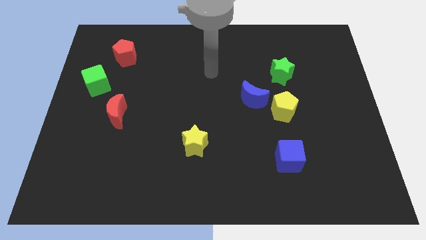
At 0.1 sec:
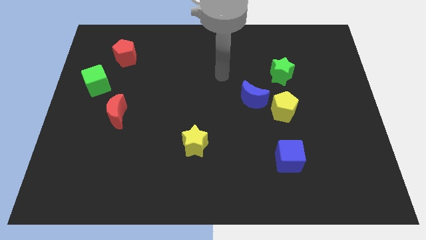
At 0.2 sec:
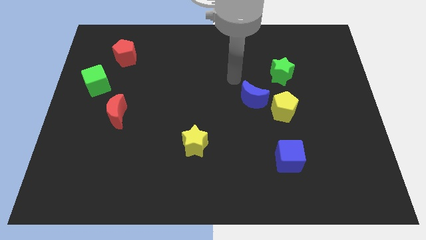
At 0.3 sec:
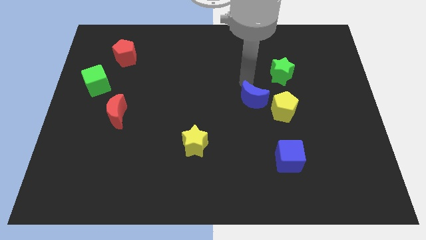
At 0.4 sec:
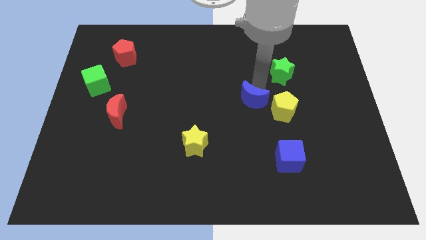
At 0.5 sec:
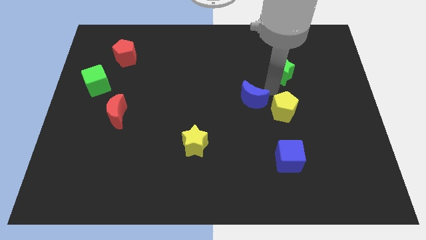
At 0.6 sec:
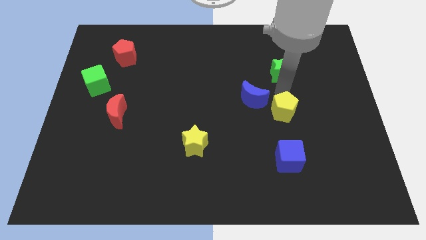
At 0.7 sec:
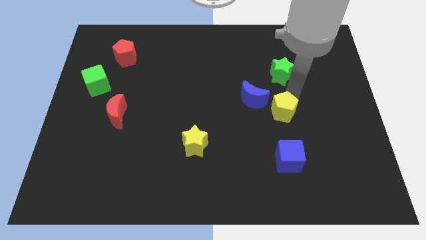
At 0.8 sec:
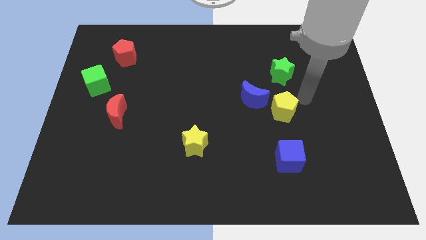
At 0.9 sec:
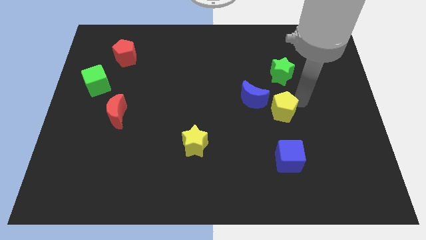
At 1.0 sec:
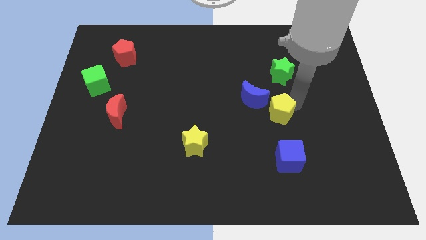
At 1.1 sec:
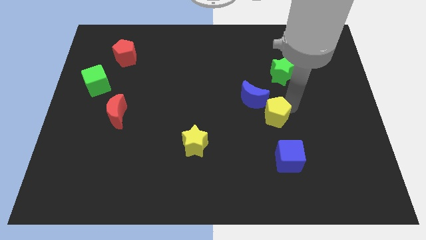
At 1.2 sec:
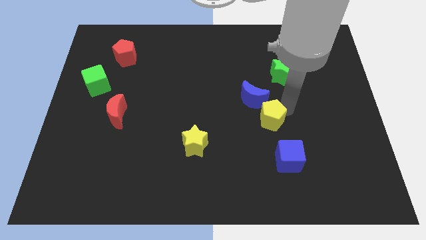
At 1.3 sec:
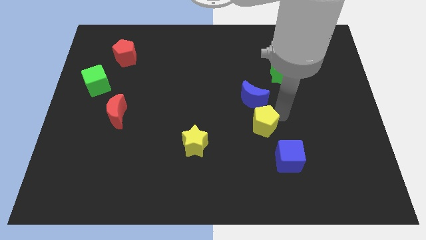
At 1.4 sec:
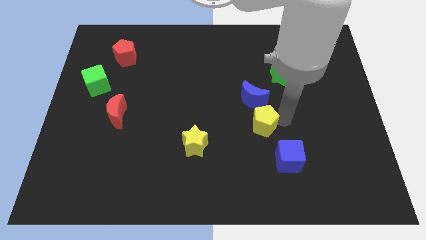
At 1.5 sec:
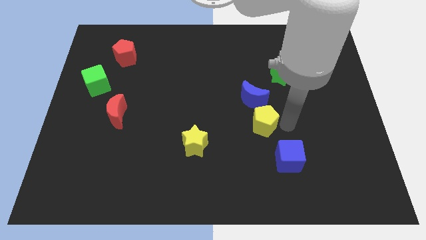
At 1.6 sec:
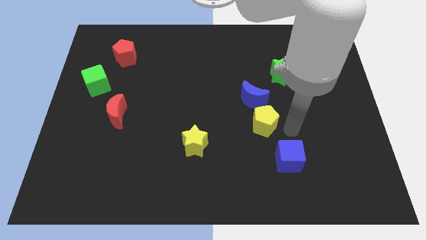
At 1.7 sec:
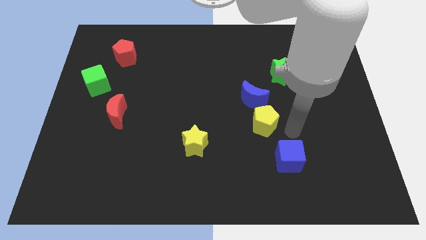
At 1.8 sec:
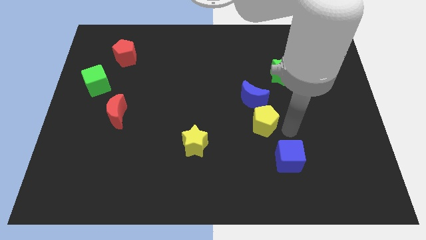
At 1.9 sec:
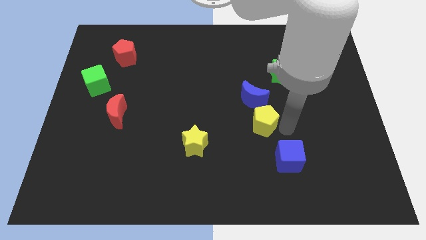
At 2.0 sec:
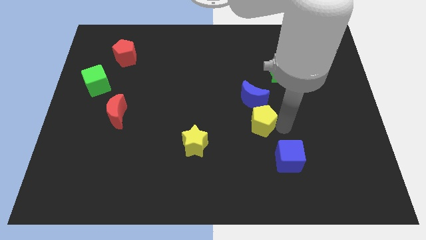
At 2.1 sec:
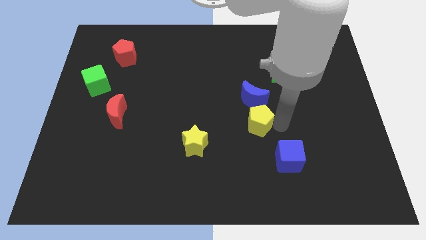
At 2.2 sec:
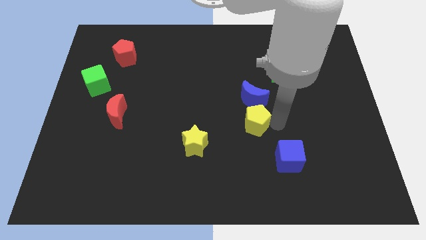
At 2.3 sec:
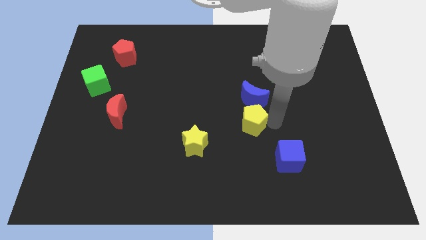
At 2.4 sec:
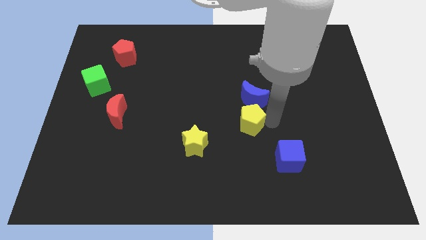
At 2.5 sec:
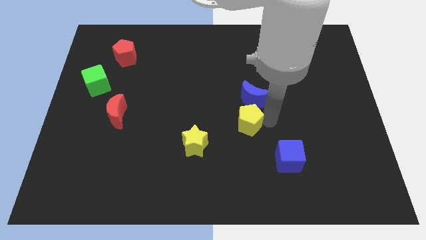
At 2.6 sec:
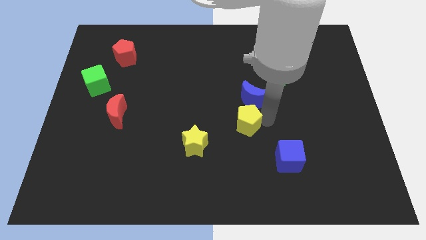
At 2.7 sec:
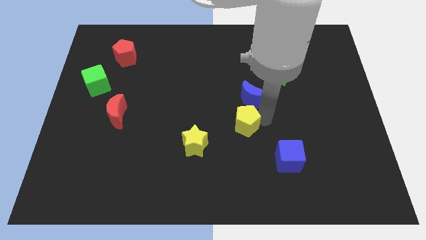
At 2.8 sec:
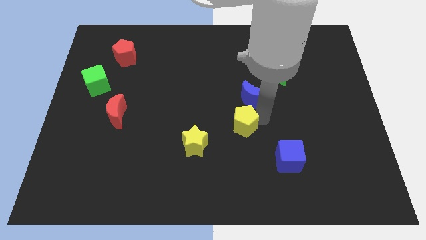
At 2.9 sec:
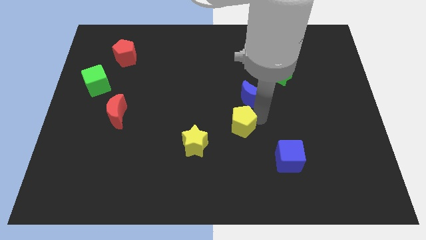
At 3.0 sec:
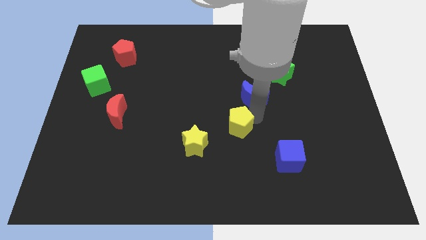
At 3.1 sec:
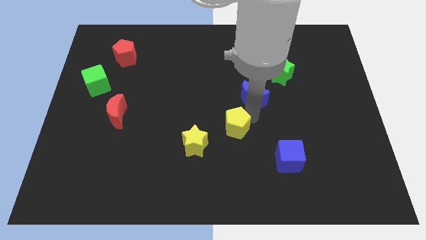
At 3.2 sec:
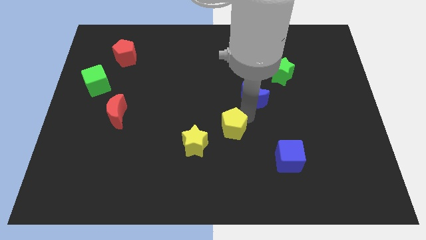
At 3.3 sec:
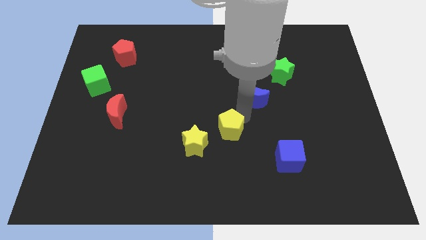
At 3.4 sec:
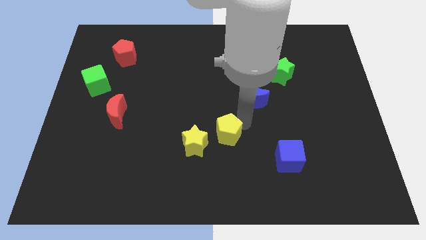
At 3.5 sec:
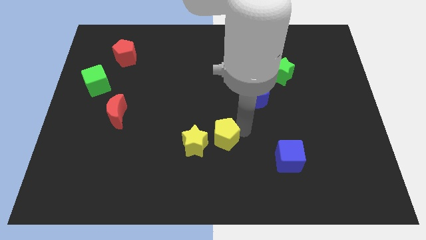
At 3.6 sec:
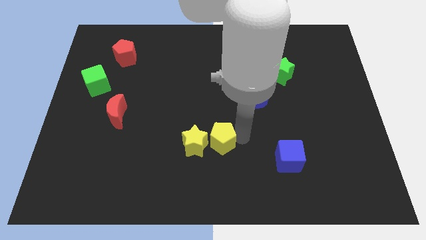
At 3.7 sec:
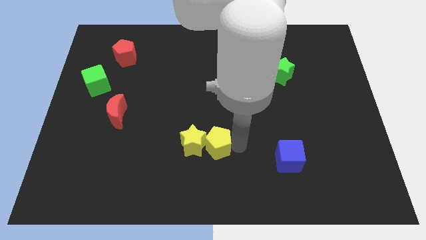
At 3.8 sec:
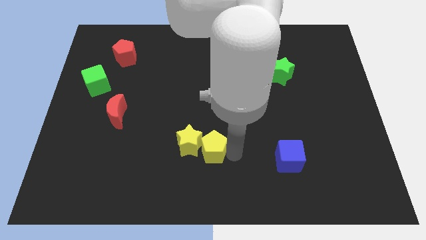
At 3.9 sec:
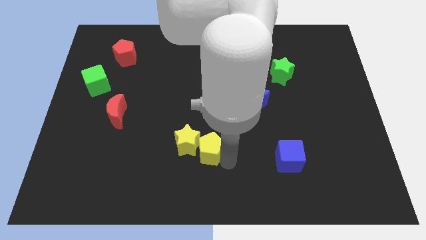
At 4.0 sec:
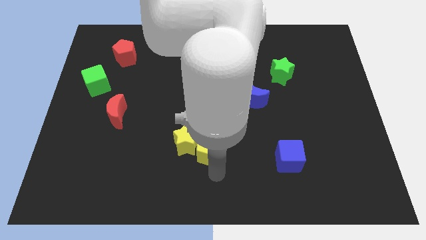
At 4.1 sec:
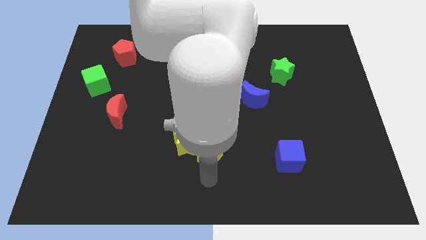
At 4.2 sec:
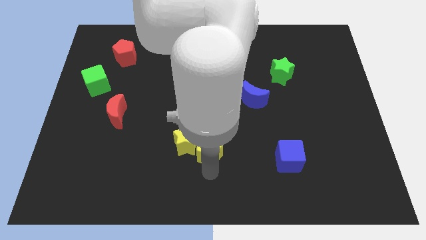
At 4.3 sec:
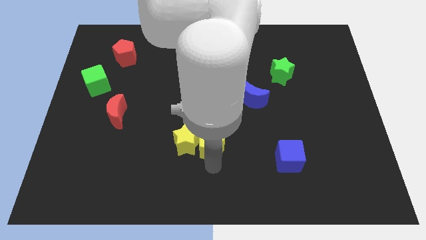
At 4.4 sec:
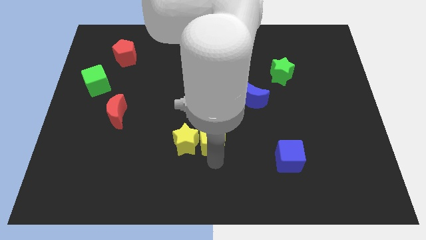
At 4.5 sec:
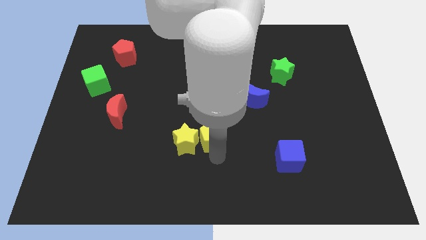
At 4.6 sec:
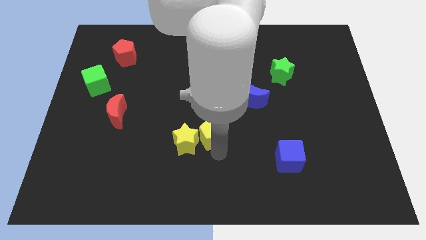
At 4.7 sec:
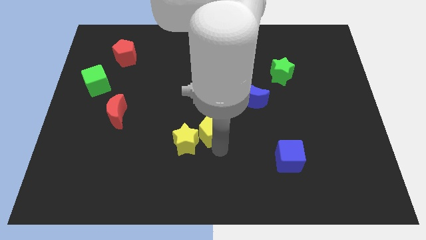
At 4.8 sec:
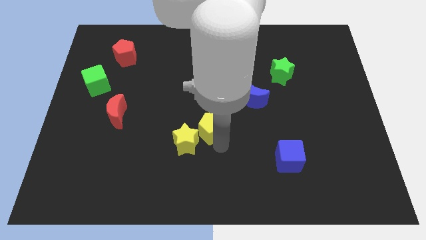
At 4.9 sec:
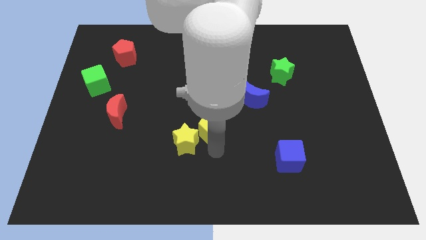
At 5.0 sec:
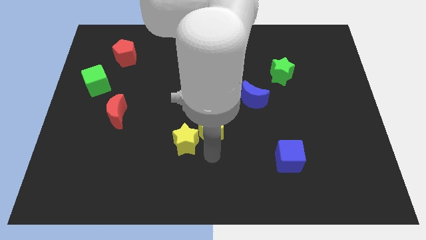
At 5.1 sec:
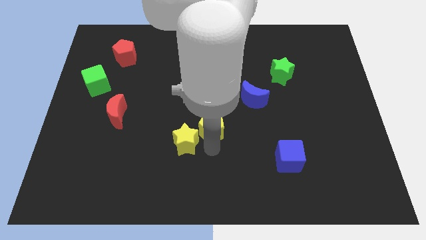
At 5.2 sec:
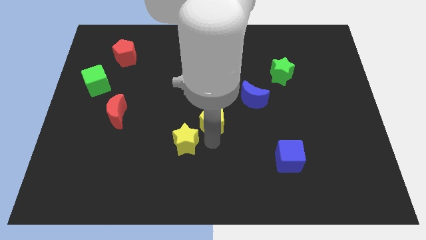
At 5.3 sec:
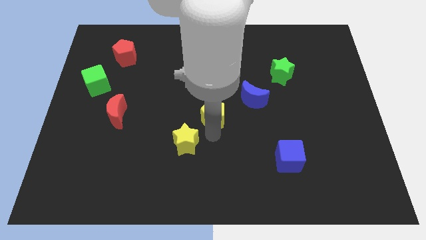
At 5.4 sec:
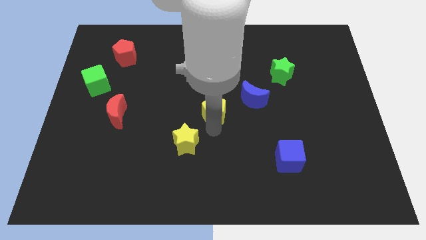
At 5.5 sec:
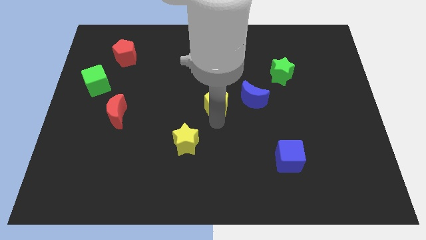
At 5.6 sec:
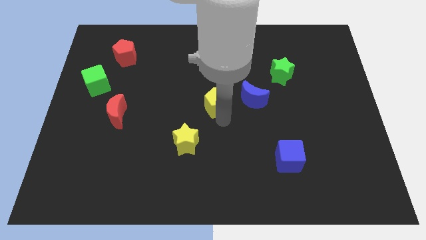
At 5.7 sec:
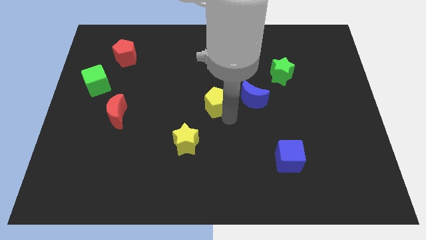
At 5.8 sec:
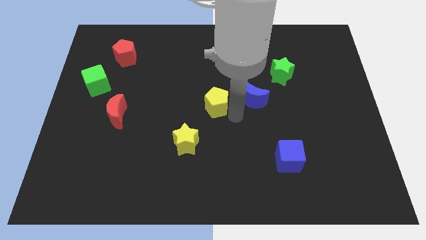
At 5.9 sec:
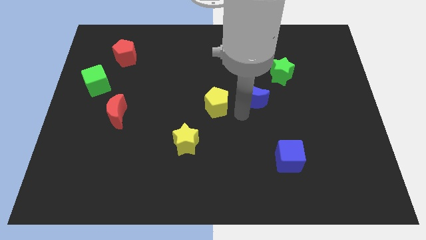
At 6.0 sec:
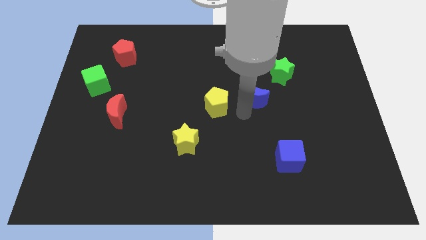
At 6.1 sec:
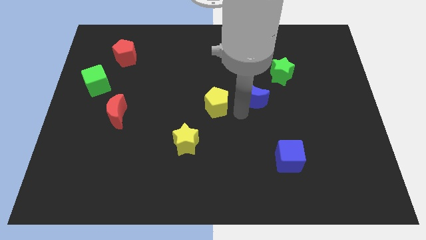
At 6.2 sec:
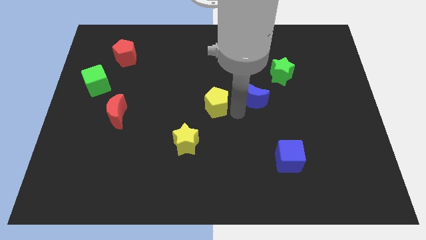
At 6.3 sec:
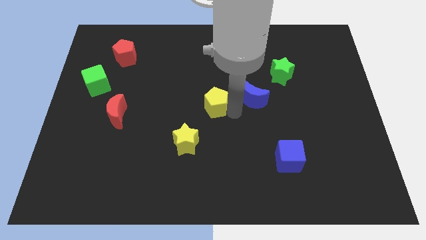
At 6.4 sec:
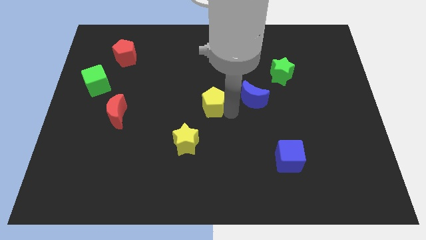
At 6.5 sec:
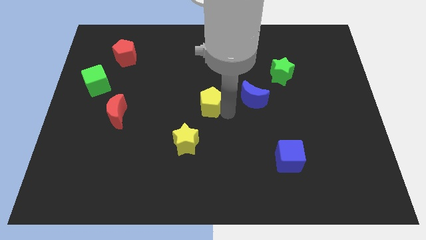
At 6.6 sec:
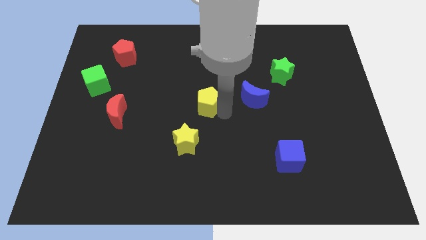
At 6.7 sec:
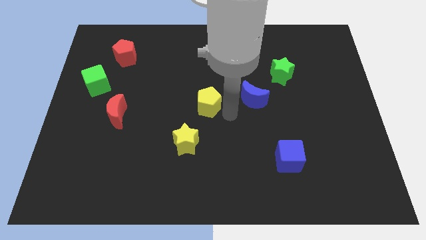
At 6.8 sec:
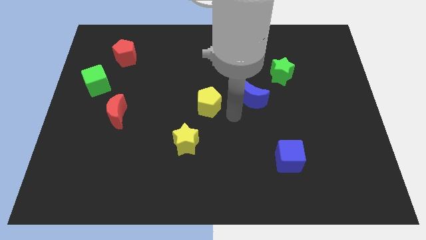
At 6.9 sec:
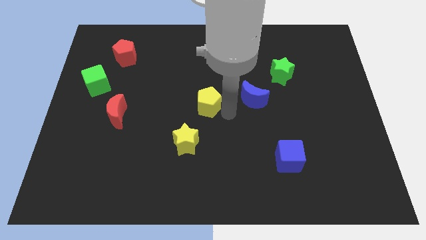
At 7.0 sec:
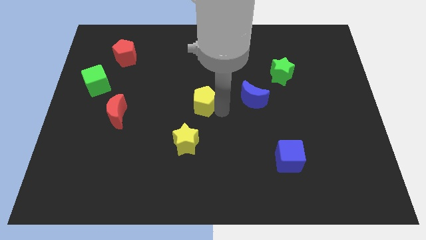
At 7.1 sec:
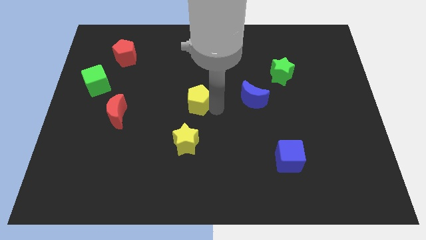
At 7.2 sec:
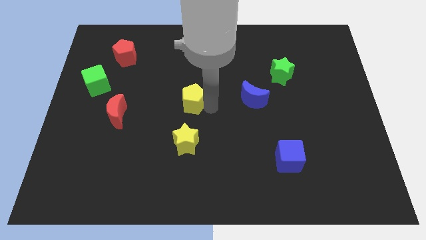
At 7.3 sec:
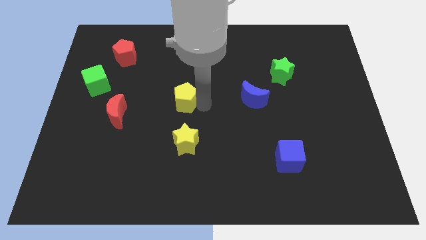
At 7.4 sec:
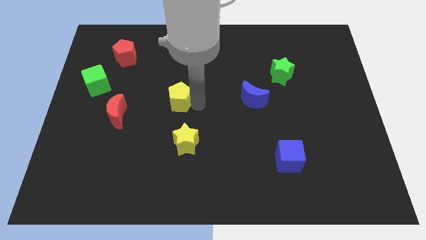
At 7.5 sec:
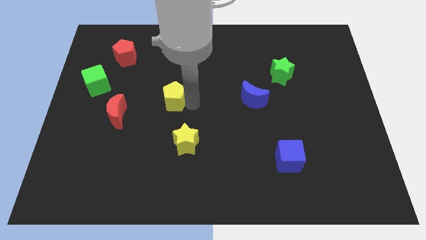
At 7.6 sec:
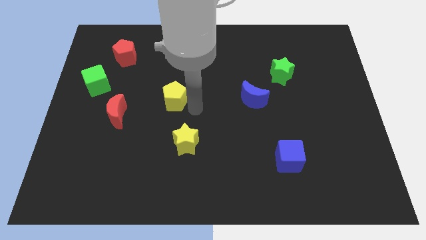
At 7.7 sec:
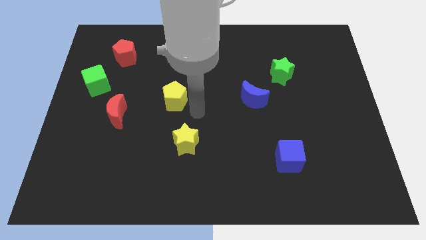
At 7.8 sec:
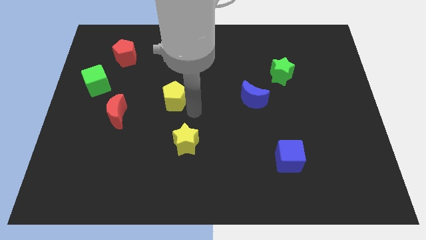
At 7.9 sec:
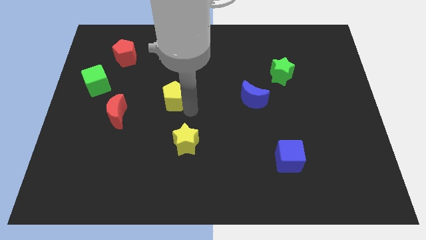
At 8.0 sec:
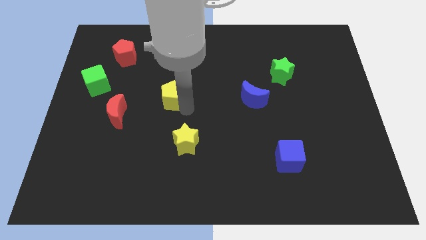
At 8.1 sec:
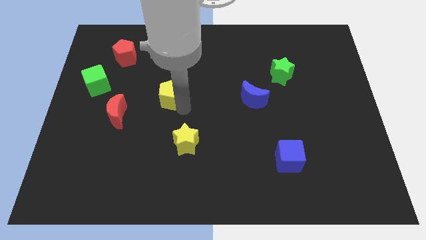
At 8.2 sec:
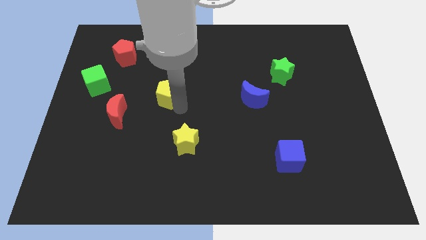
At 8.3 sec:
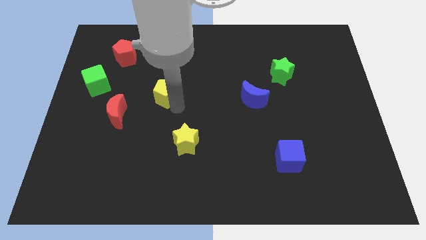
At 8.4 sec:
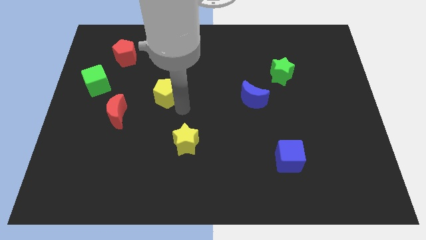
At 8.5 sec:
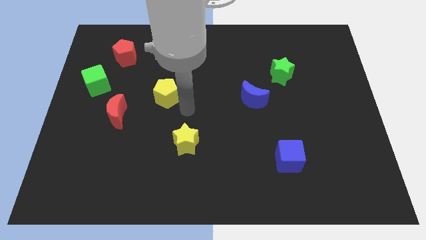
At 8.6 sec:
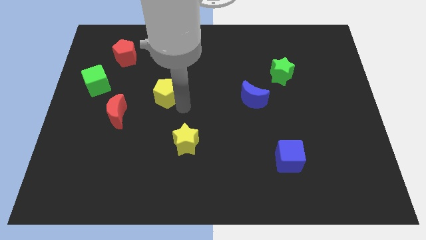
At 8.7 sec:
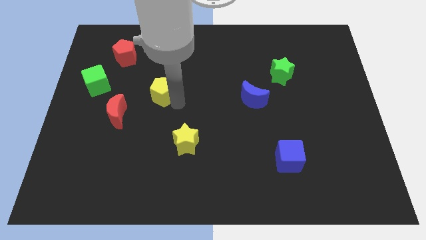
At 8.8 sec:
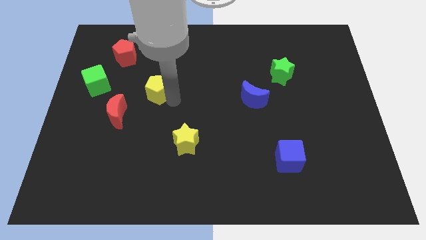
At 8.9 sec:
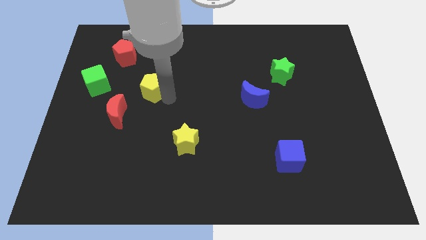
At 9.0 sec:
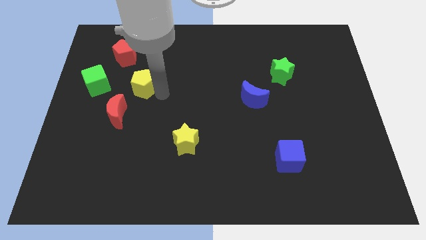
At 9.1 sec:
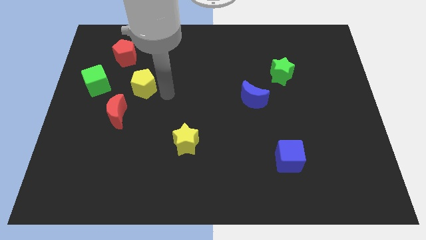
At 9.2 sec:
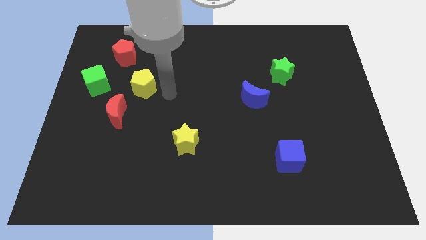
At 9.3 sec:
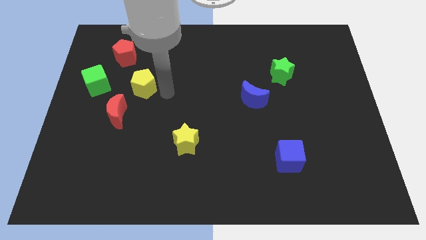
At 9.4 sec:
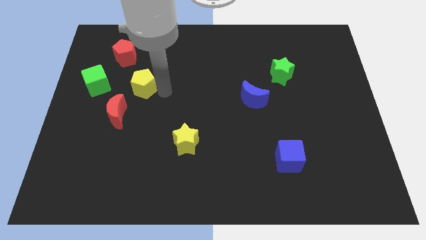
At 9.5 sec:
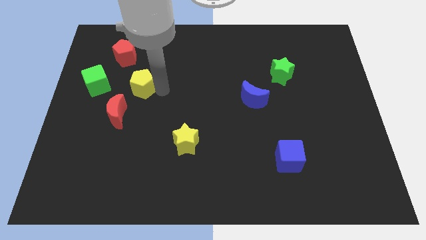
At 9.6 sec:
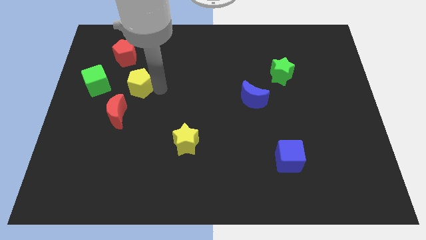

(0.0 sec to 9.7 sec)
slide the yellow pentagon above the red moon
